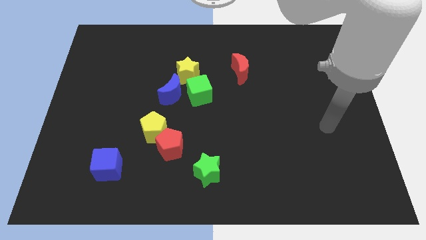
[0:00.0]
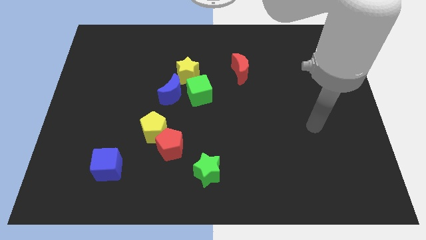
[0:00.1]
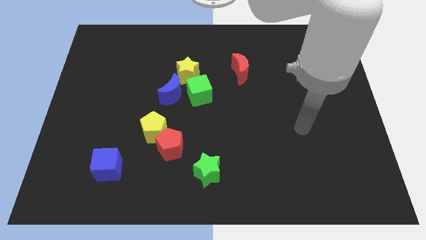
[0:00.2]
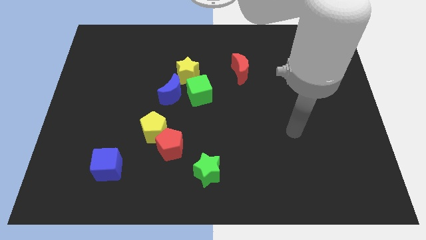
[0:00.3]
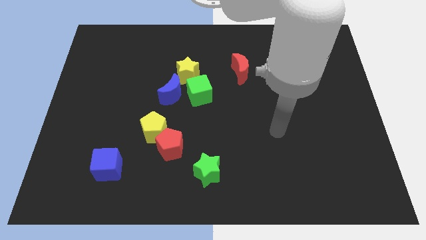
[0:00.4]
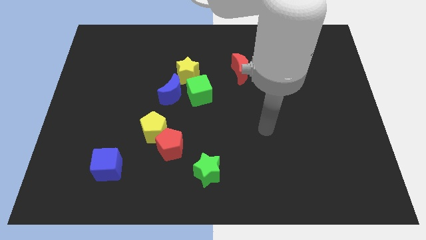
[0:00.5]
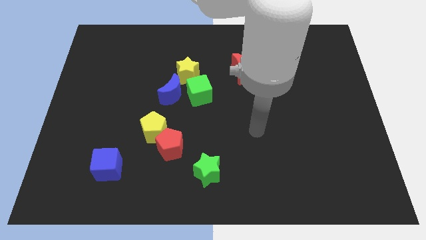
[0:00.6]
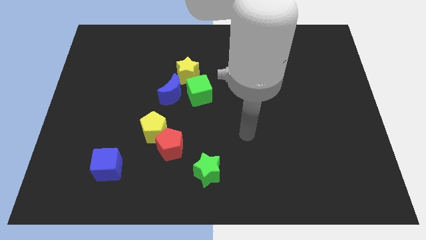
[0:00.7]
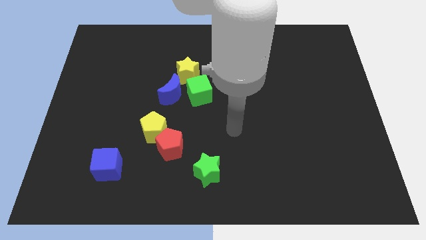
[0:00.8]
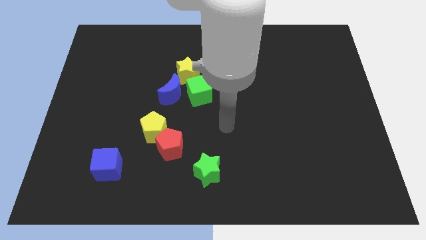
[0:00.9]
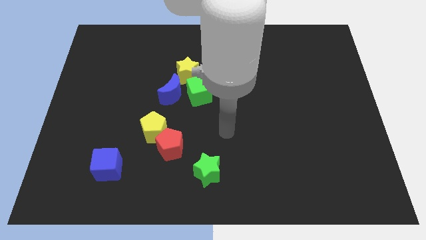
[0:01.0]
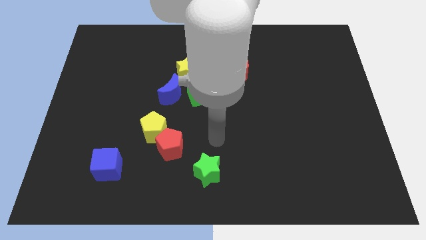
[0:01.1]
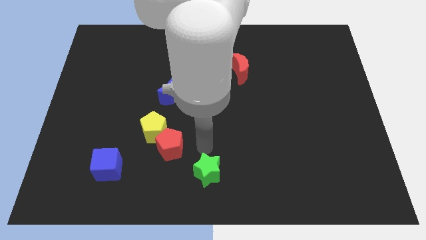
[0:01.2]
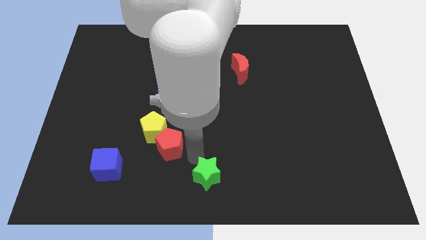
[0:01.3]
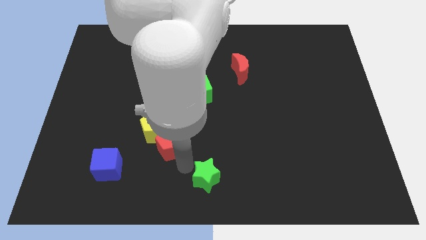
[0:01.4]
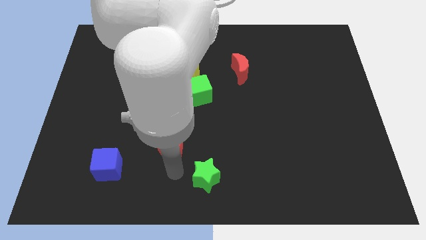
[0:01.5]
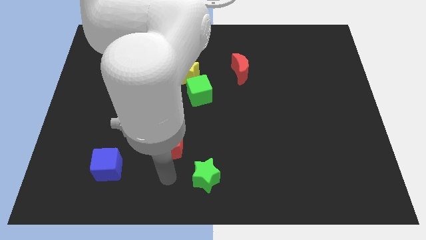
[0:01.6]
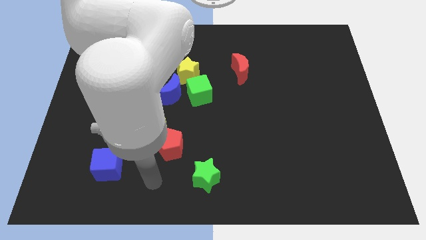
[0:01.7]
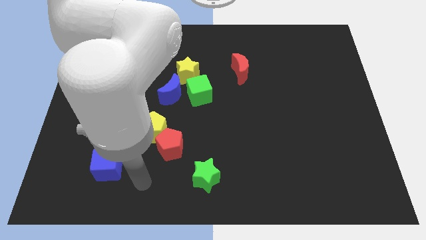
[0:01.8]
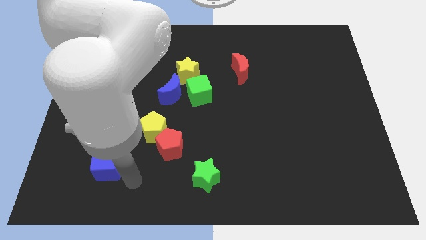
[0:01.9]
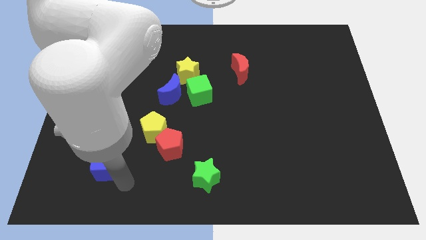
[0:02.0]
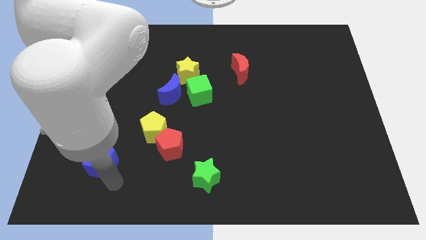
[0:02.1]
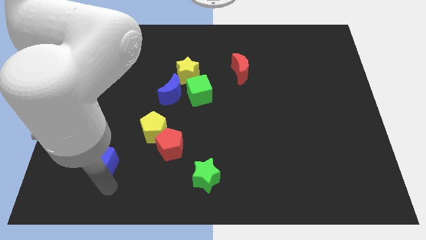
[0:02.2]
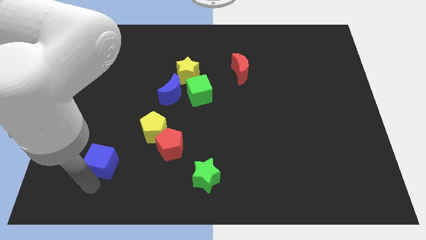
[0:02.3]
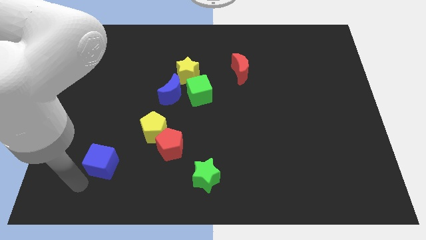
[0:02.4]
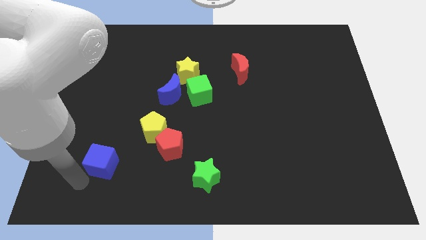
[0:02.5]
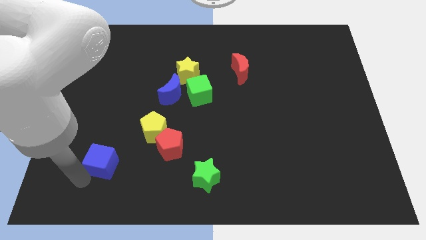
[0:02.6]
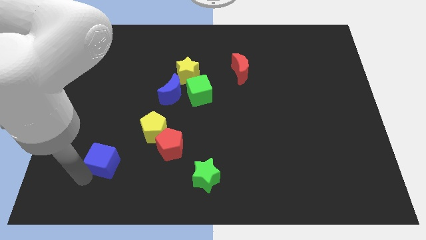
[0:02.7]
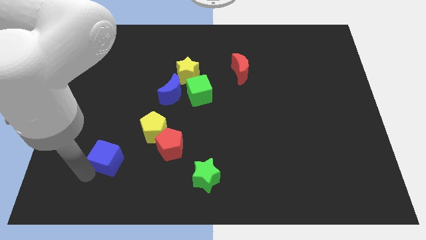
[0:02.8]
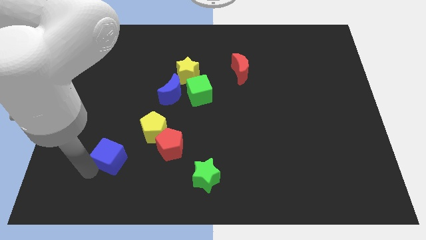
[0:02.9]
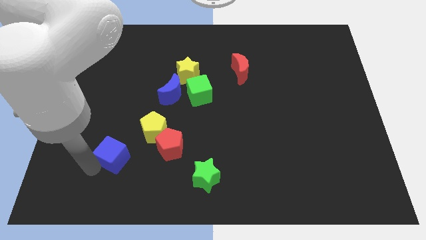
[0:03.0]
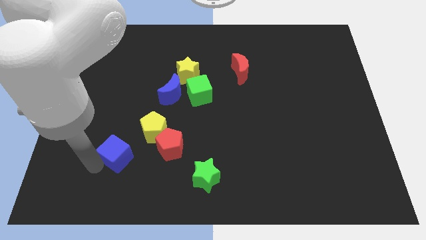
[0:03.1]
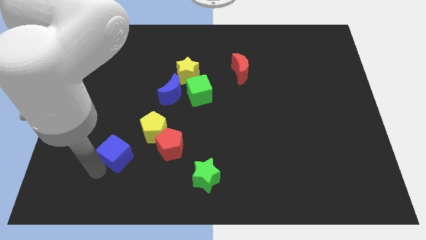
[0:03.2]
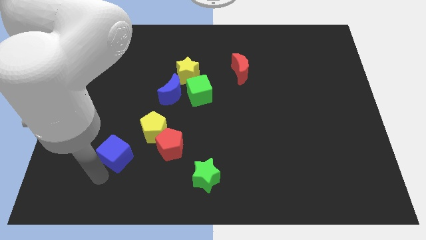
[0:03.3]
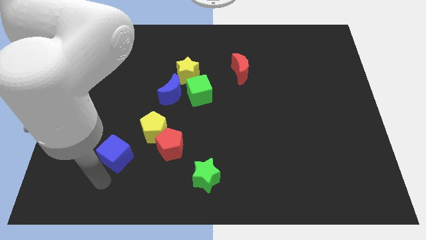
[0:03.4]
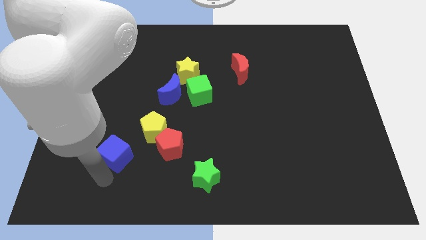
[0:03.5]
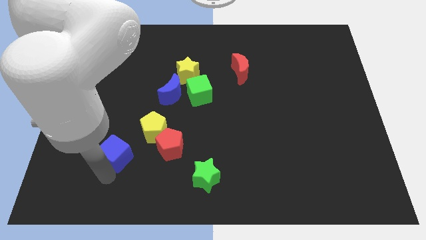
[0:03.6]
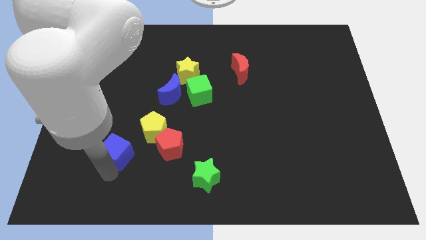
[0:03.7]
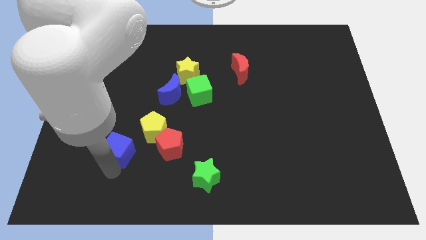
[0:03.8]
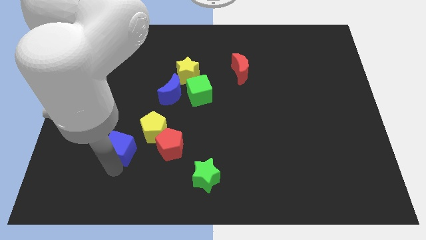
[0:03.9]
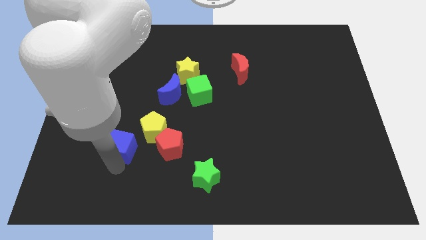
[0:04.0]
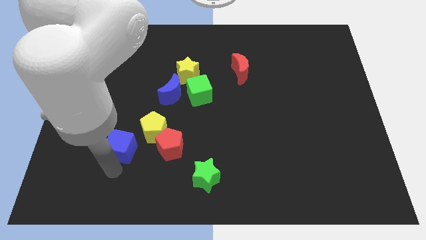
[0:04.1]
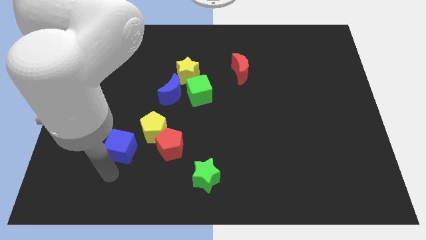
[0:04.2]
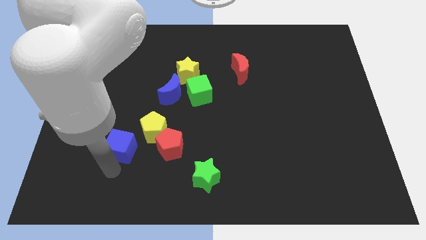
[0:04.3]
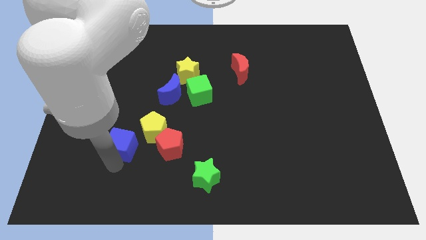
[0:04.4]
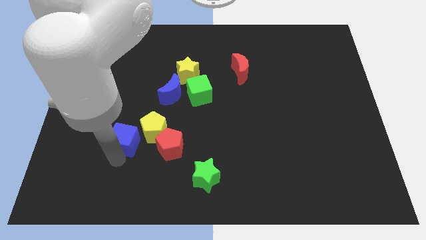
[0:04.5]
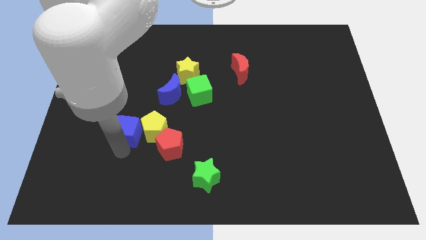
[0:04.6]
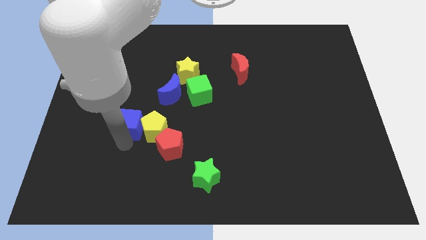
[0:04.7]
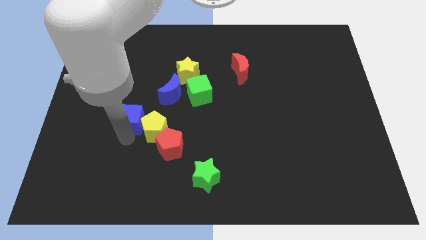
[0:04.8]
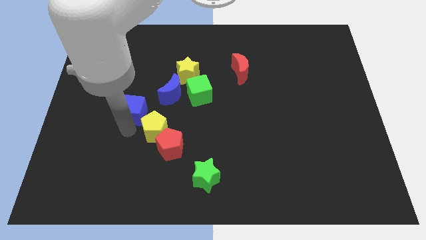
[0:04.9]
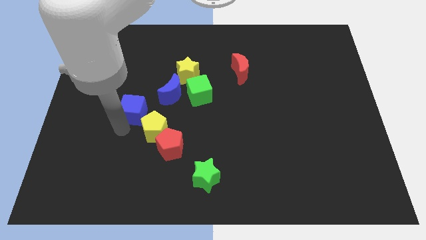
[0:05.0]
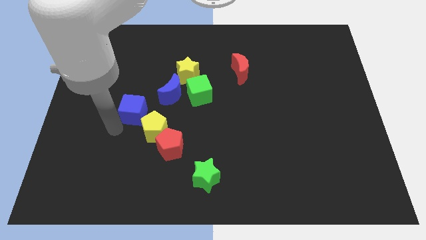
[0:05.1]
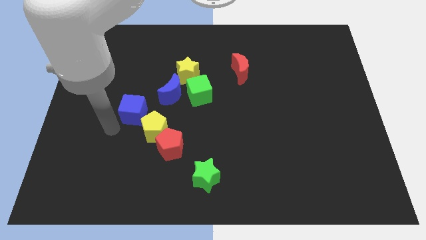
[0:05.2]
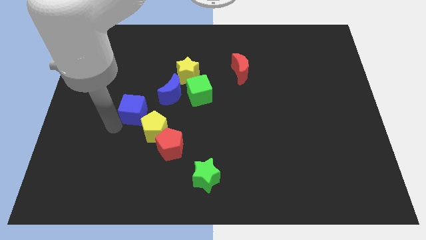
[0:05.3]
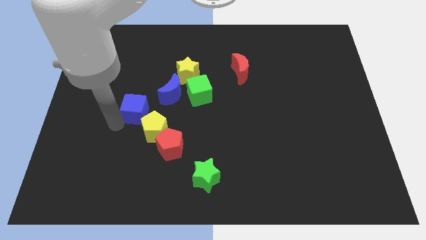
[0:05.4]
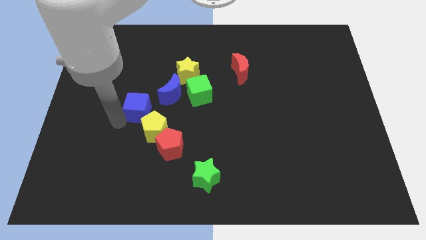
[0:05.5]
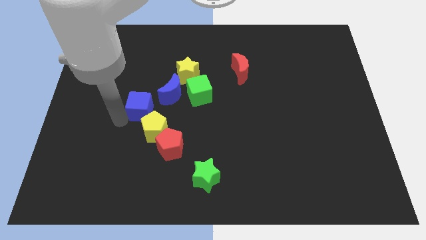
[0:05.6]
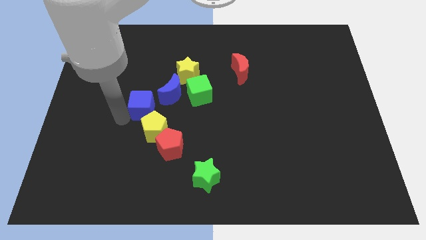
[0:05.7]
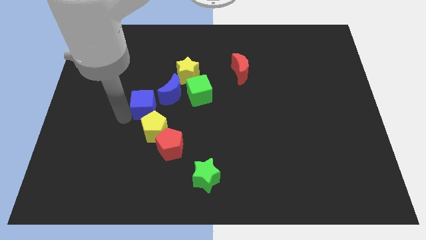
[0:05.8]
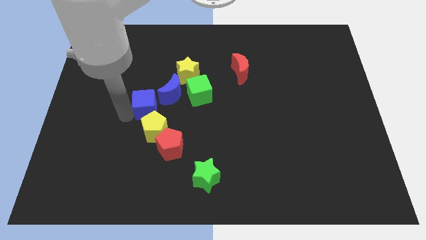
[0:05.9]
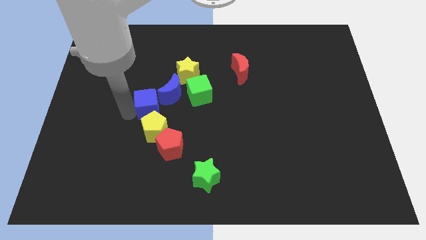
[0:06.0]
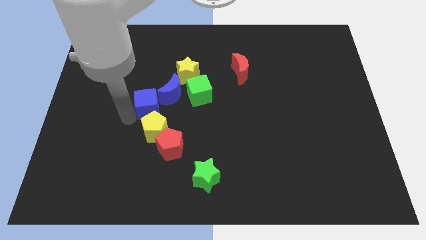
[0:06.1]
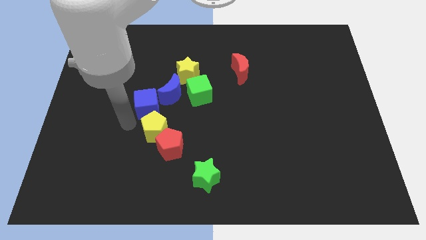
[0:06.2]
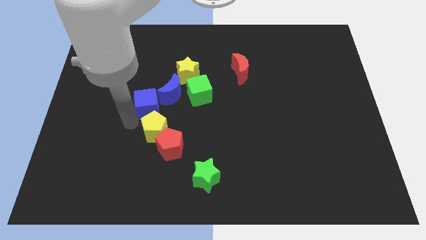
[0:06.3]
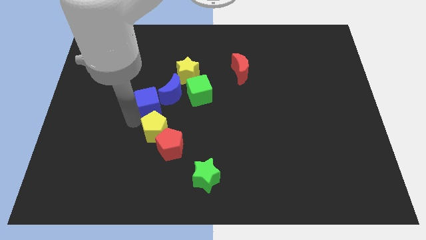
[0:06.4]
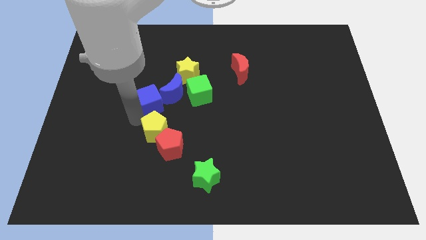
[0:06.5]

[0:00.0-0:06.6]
move the blue cube to the bottom left of the yellow star

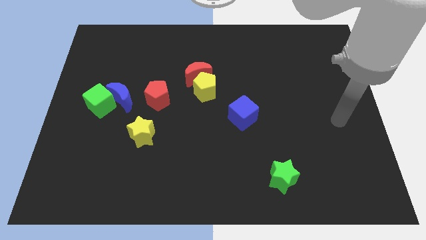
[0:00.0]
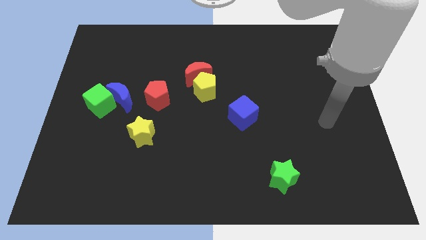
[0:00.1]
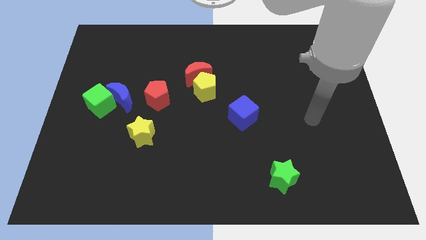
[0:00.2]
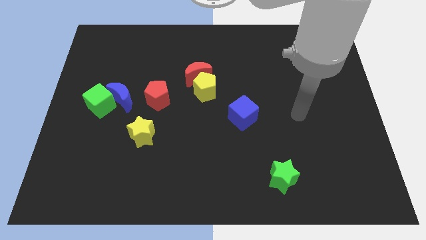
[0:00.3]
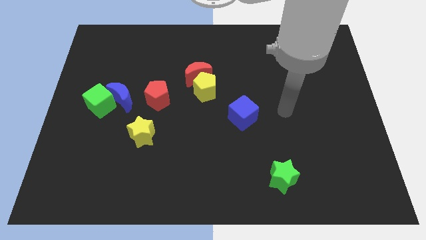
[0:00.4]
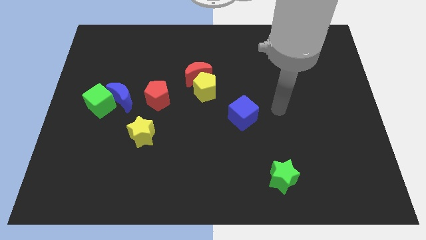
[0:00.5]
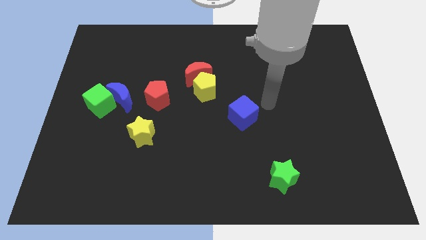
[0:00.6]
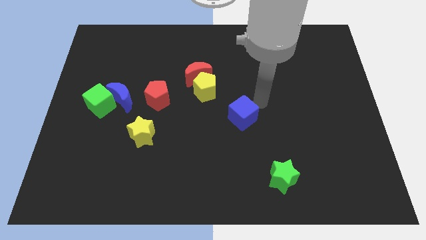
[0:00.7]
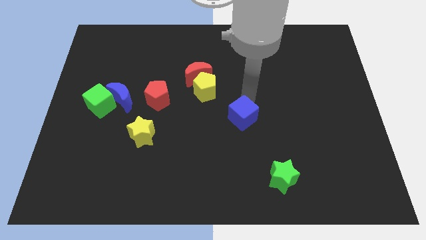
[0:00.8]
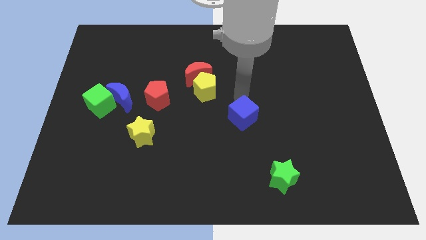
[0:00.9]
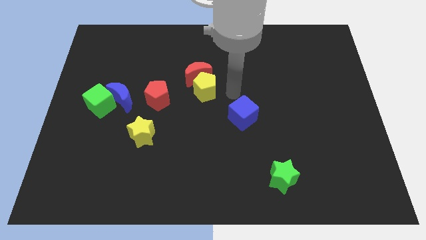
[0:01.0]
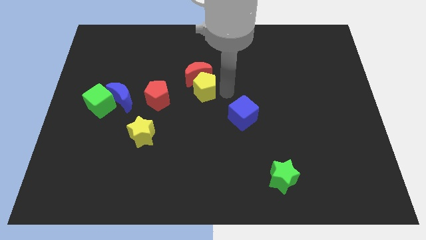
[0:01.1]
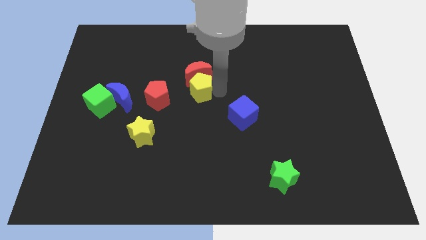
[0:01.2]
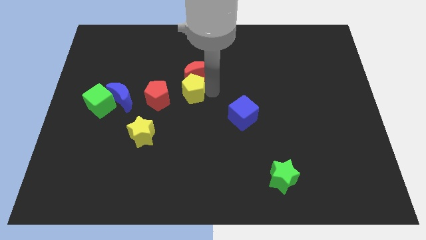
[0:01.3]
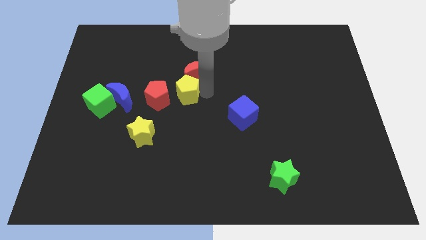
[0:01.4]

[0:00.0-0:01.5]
push the yellow pentagon to the right side of the blue moon

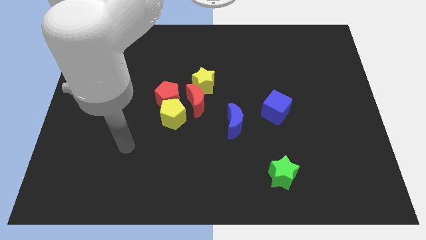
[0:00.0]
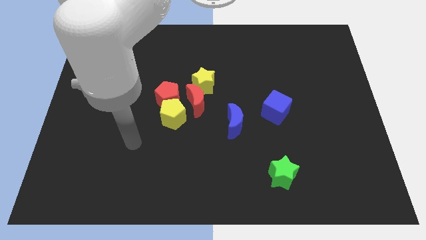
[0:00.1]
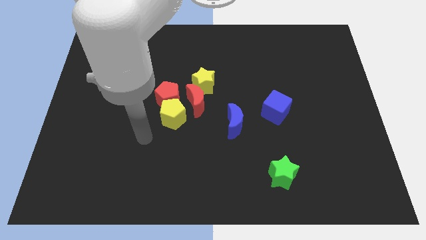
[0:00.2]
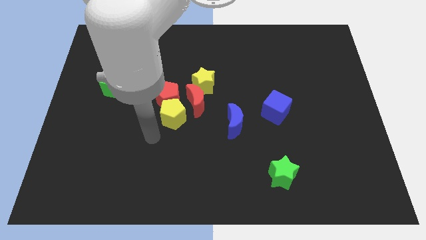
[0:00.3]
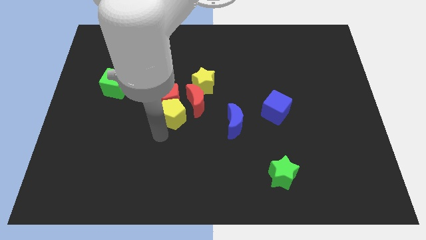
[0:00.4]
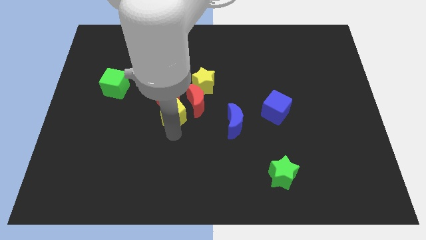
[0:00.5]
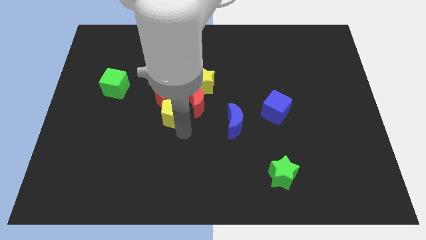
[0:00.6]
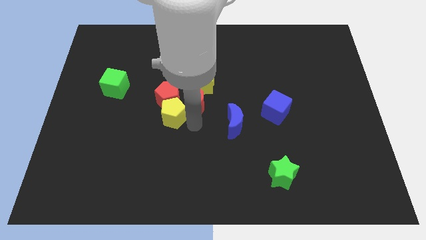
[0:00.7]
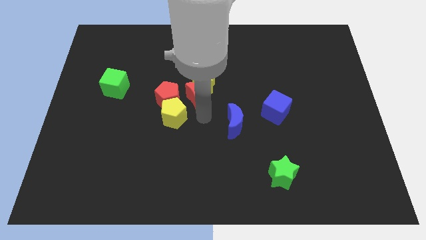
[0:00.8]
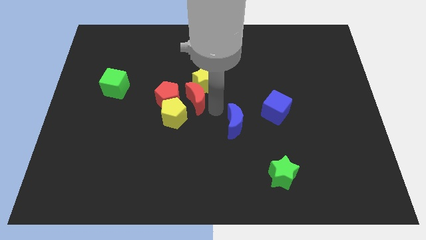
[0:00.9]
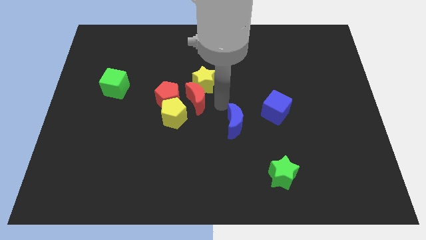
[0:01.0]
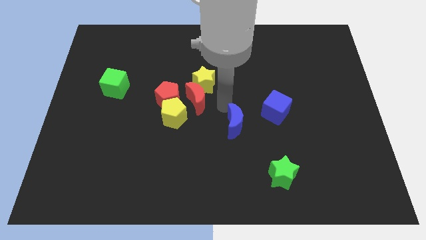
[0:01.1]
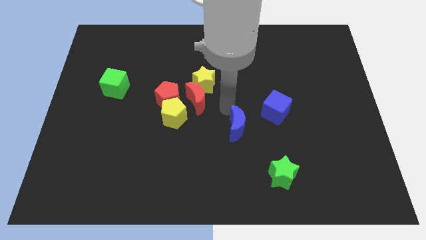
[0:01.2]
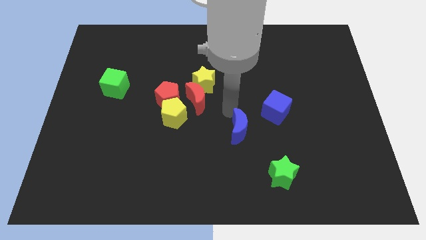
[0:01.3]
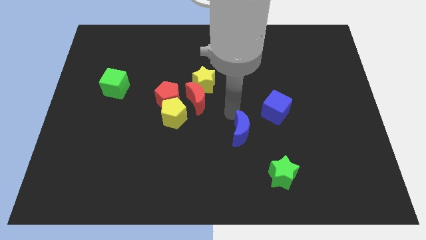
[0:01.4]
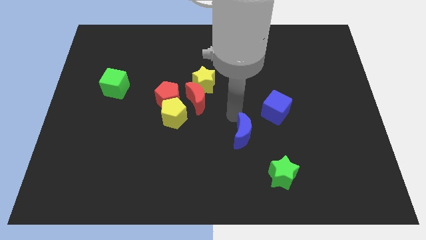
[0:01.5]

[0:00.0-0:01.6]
push the blue moon to the top left of the green star
